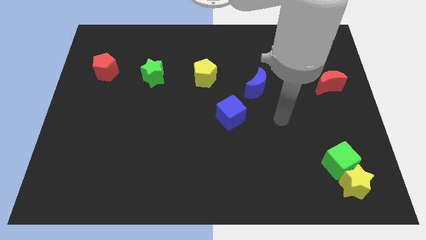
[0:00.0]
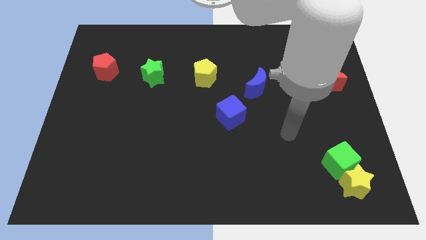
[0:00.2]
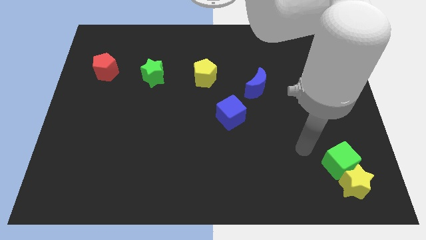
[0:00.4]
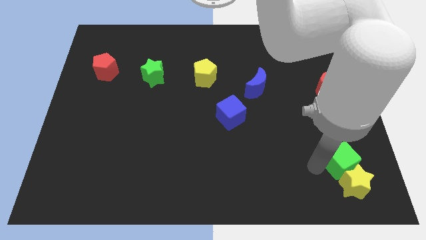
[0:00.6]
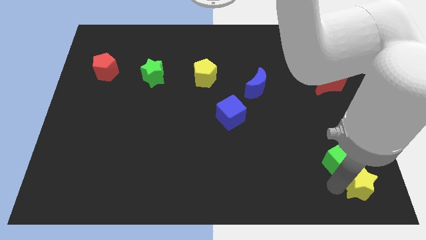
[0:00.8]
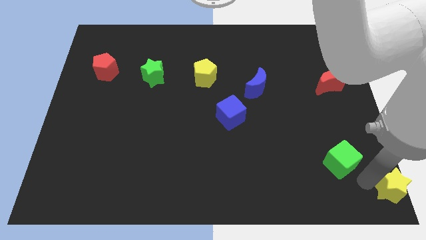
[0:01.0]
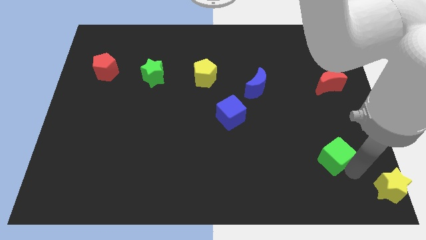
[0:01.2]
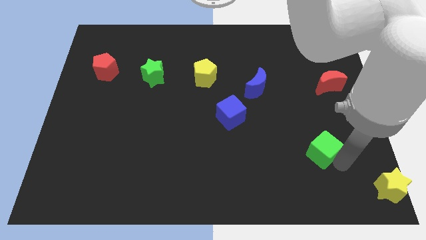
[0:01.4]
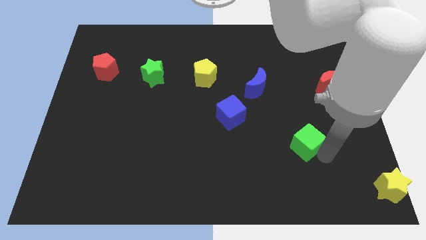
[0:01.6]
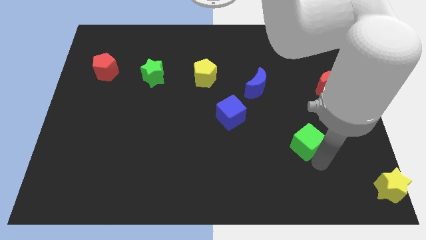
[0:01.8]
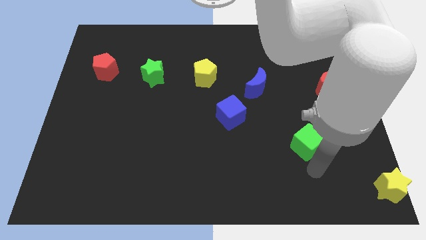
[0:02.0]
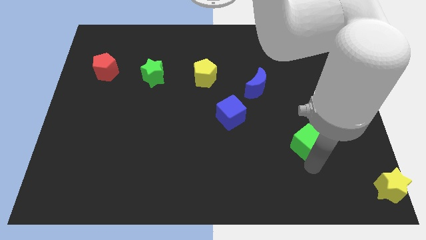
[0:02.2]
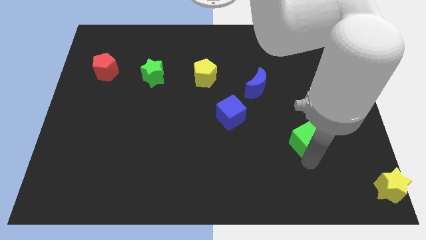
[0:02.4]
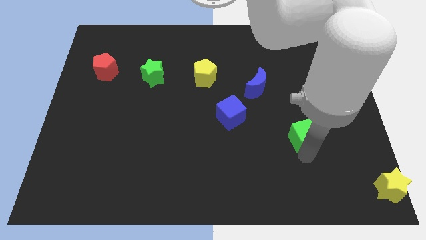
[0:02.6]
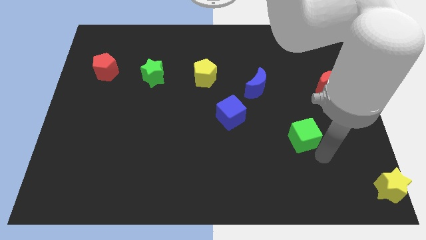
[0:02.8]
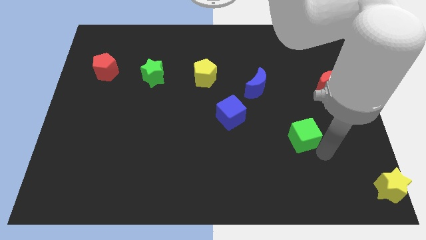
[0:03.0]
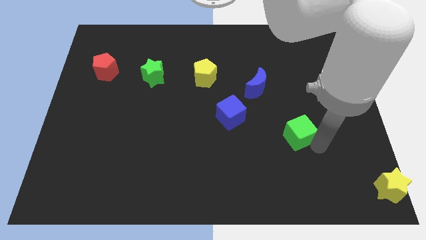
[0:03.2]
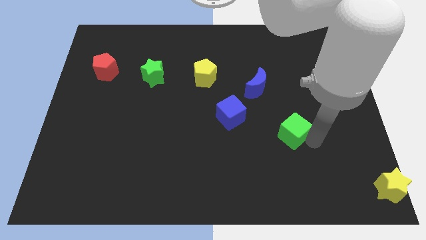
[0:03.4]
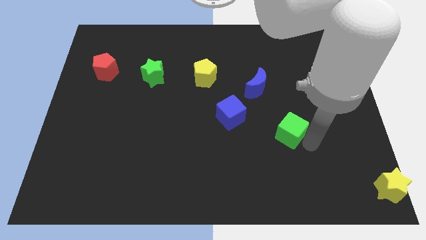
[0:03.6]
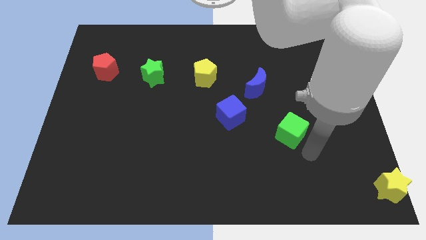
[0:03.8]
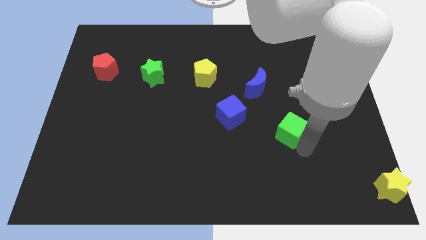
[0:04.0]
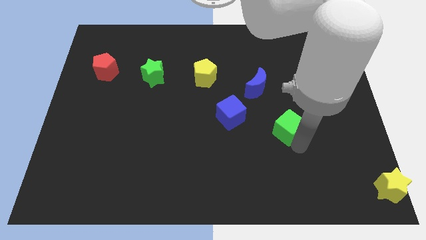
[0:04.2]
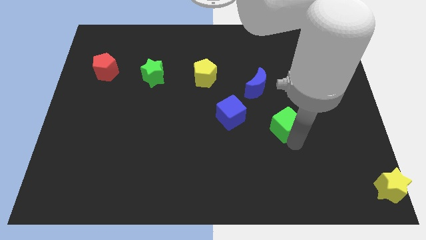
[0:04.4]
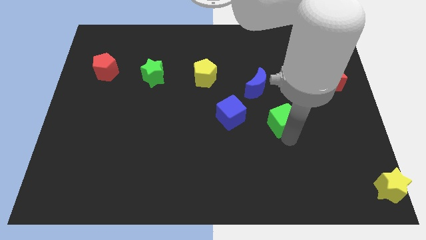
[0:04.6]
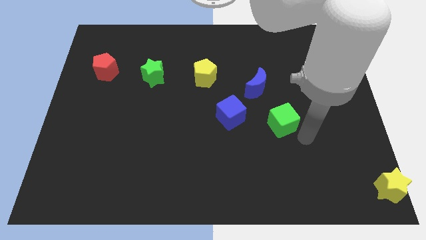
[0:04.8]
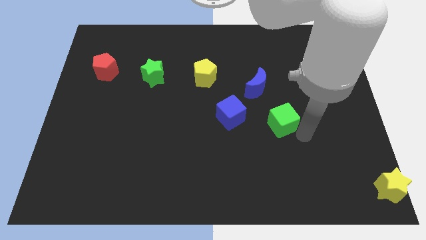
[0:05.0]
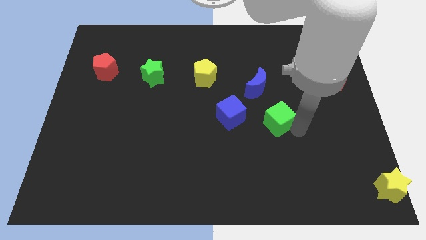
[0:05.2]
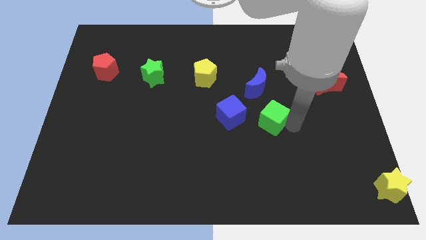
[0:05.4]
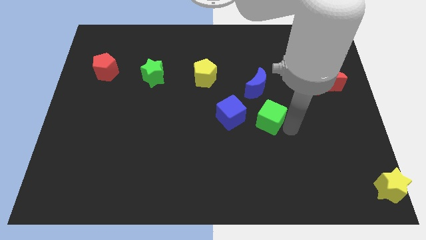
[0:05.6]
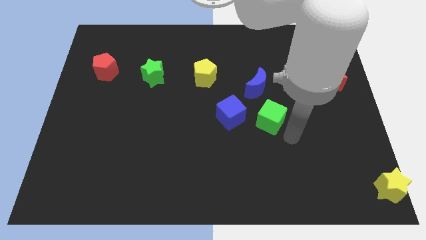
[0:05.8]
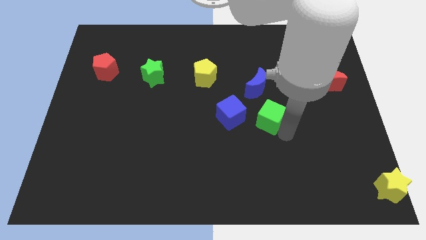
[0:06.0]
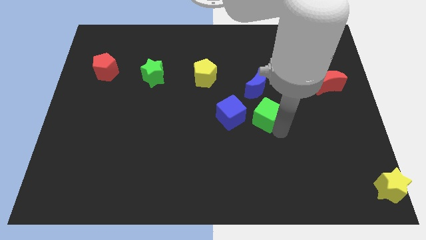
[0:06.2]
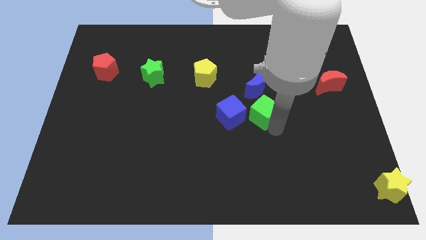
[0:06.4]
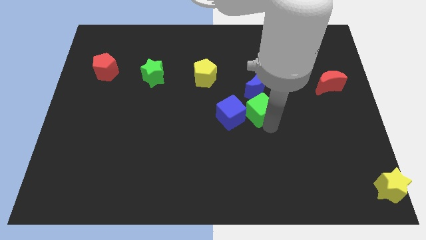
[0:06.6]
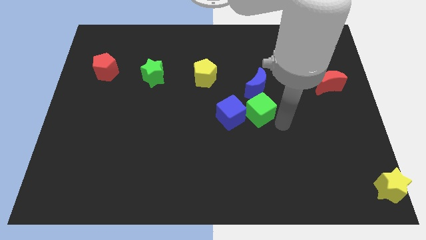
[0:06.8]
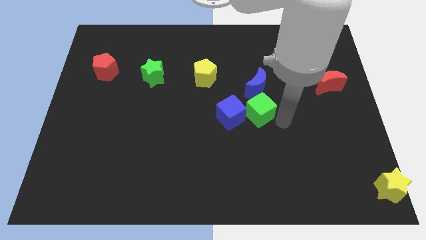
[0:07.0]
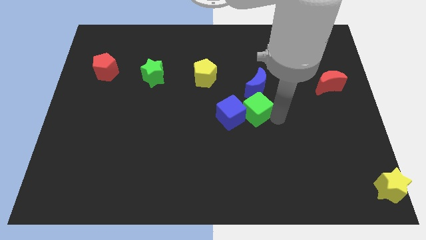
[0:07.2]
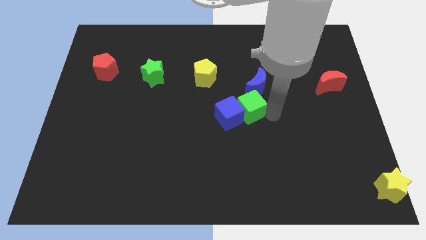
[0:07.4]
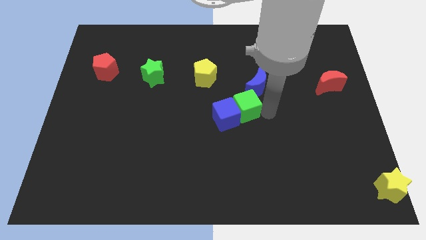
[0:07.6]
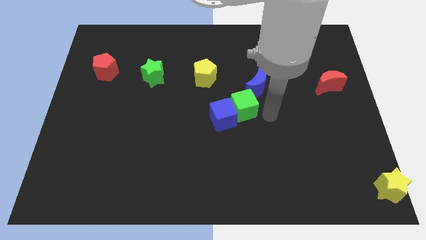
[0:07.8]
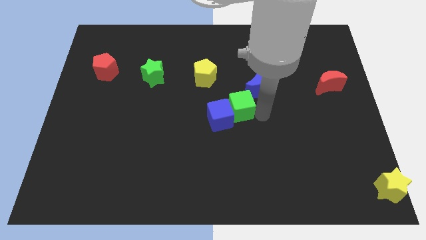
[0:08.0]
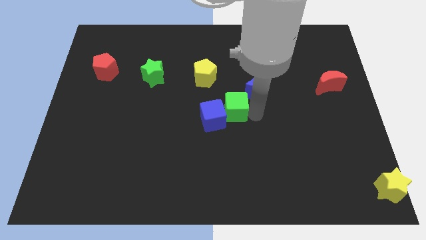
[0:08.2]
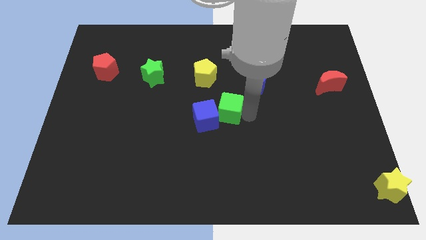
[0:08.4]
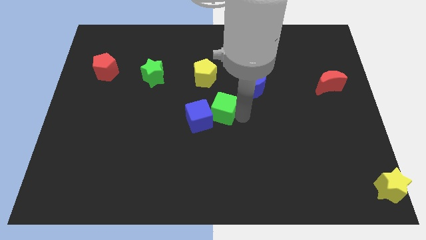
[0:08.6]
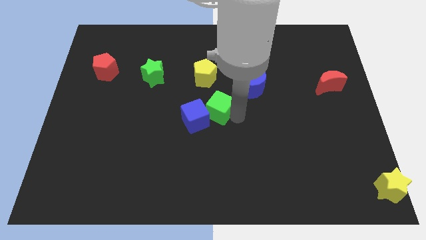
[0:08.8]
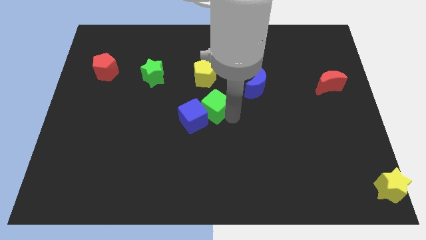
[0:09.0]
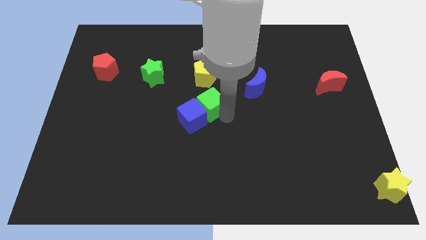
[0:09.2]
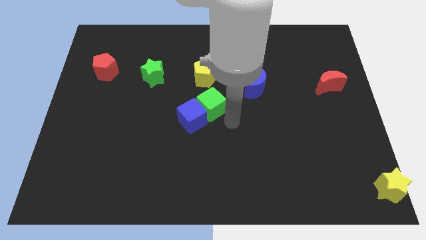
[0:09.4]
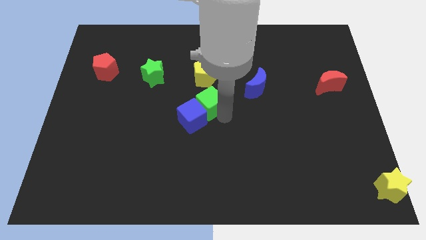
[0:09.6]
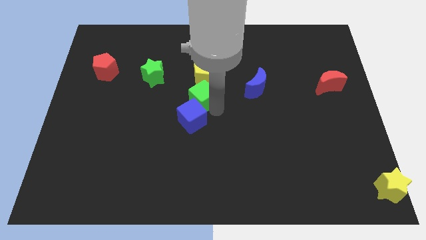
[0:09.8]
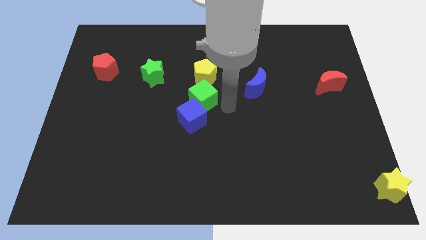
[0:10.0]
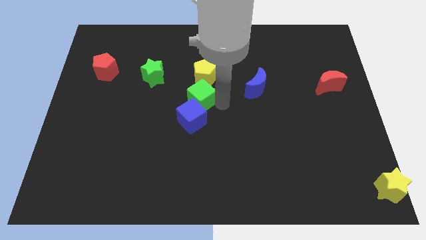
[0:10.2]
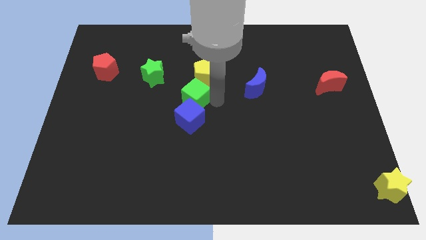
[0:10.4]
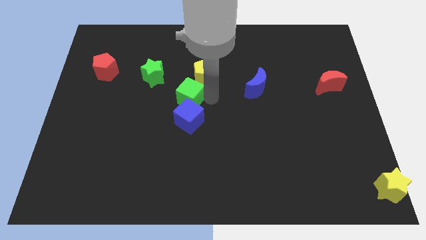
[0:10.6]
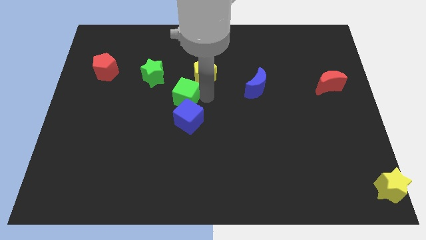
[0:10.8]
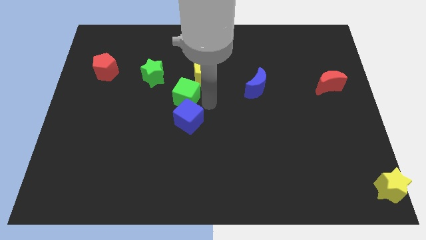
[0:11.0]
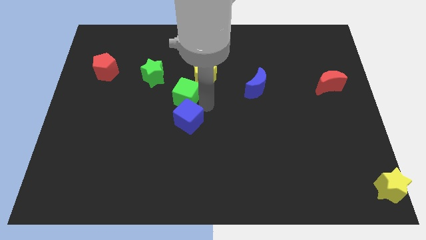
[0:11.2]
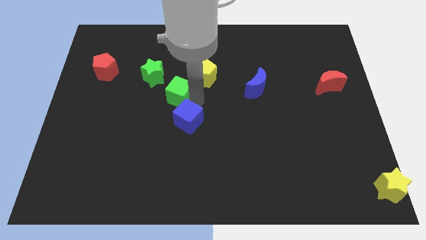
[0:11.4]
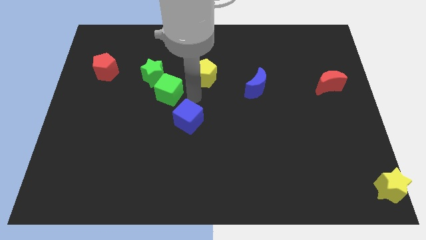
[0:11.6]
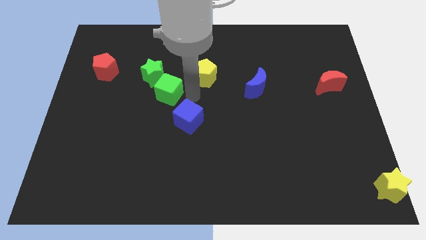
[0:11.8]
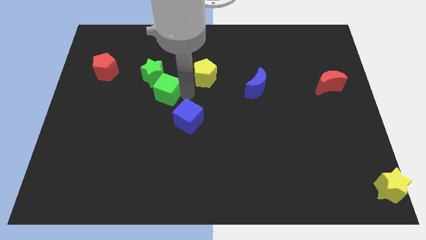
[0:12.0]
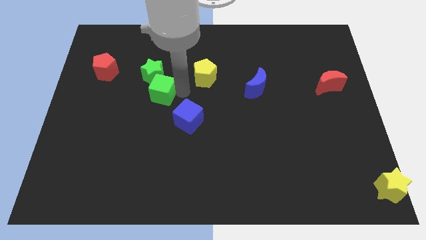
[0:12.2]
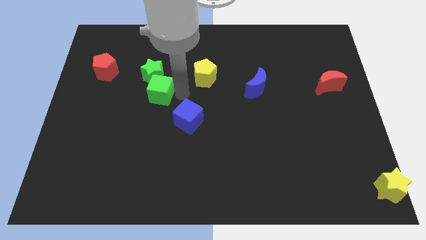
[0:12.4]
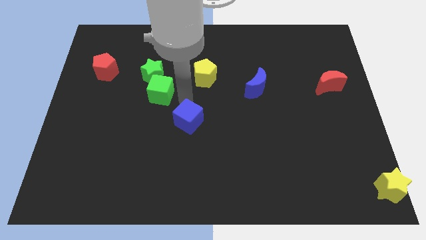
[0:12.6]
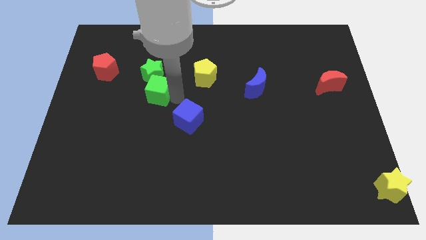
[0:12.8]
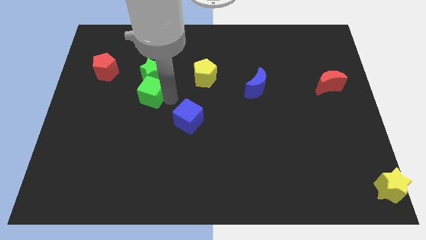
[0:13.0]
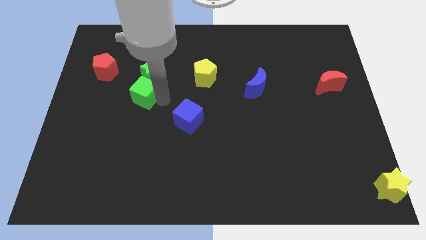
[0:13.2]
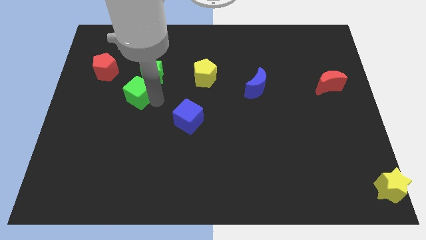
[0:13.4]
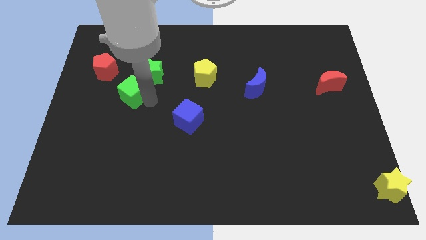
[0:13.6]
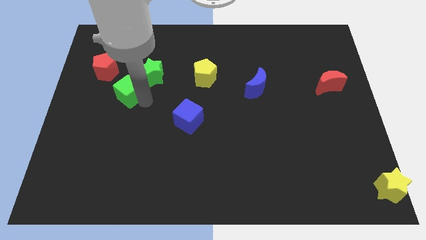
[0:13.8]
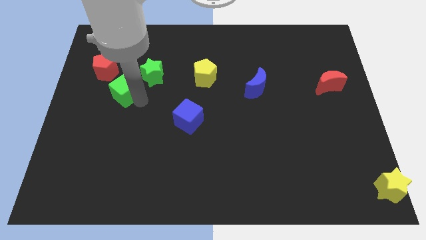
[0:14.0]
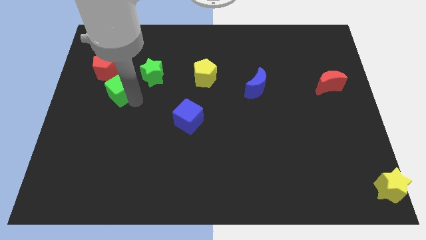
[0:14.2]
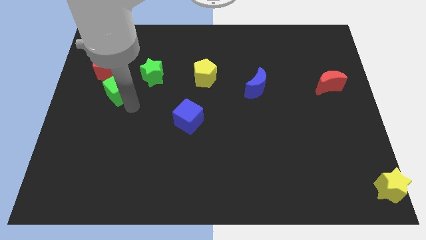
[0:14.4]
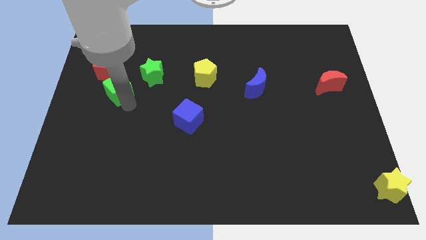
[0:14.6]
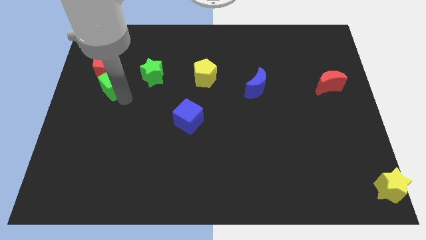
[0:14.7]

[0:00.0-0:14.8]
put the green cube to the red pentagon
